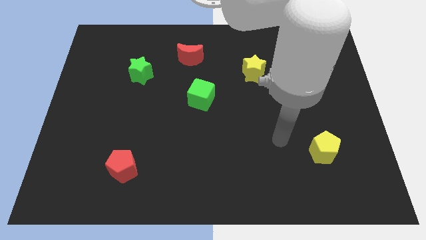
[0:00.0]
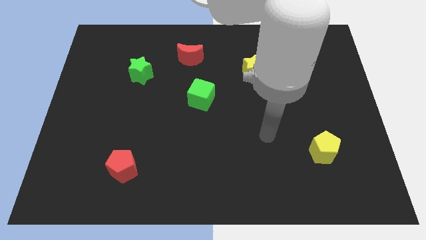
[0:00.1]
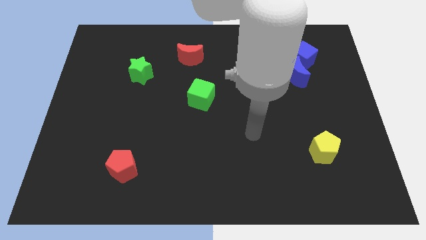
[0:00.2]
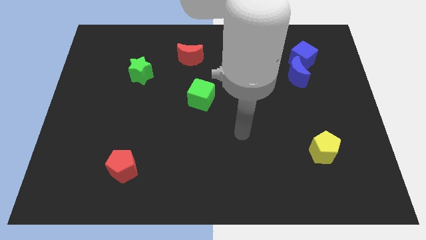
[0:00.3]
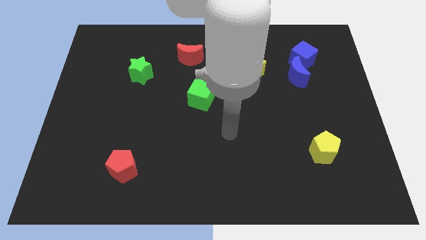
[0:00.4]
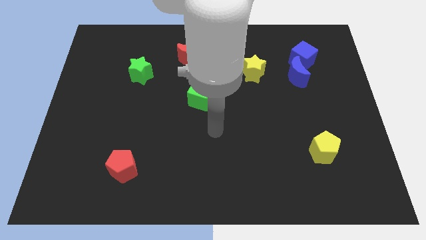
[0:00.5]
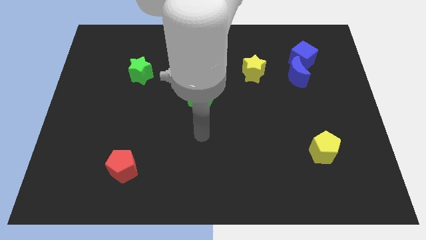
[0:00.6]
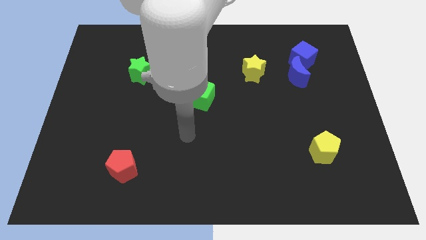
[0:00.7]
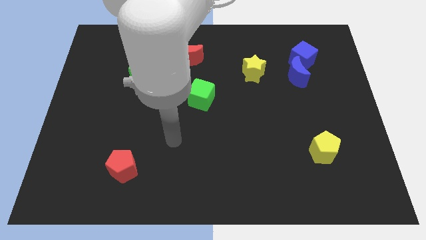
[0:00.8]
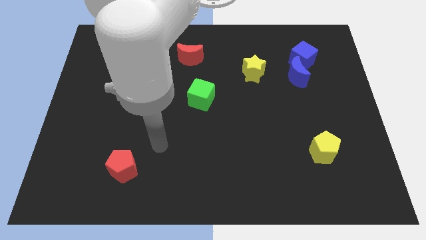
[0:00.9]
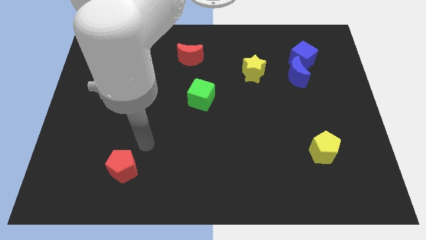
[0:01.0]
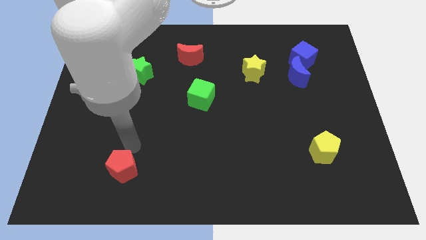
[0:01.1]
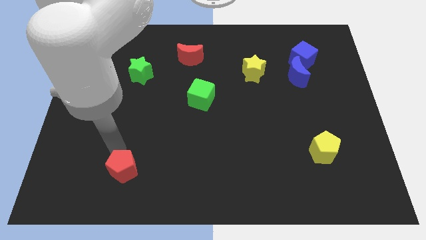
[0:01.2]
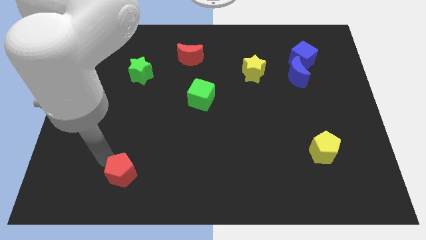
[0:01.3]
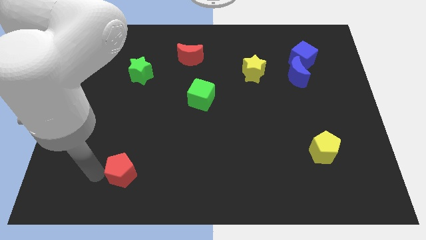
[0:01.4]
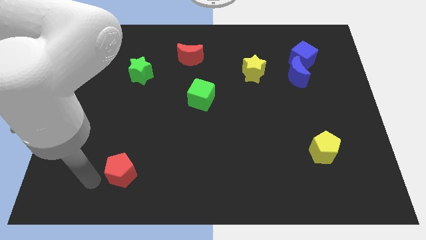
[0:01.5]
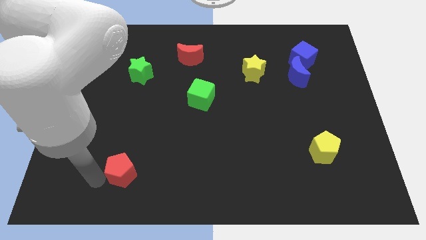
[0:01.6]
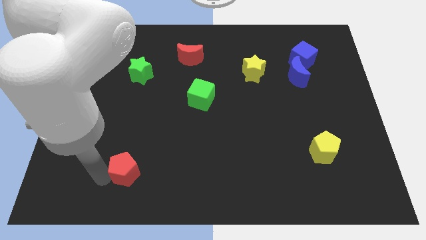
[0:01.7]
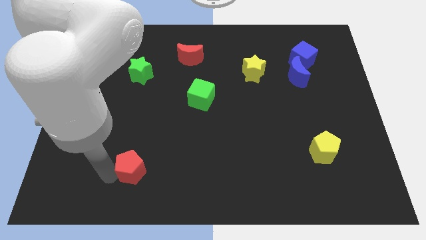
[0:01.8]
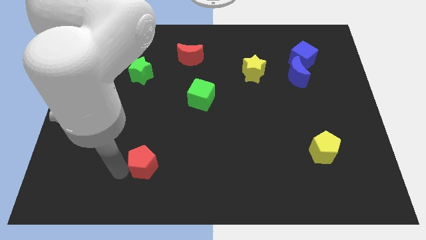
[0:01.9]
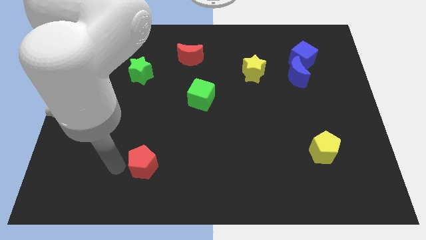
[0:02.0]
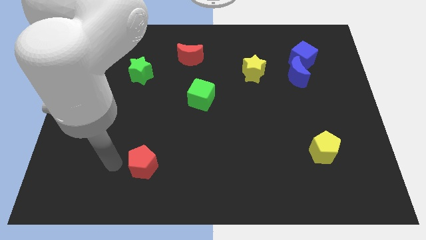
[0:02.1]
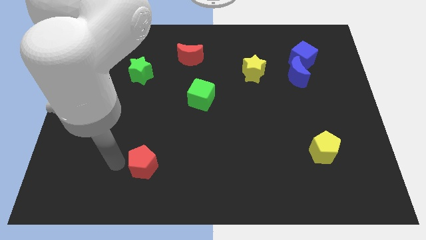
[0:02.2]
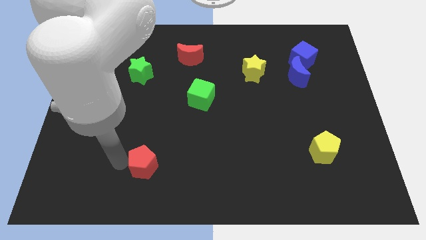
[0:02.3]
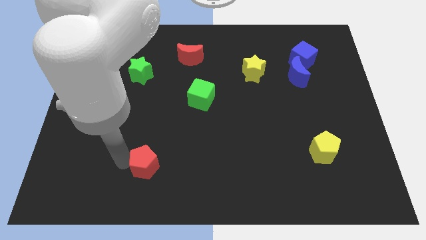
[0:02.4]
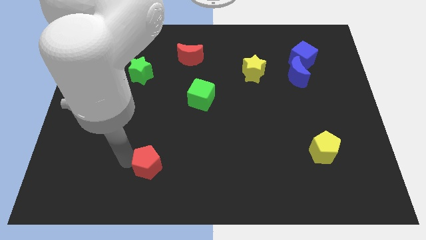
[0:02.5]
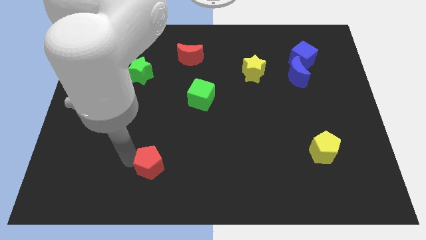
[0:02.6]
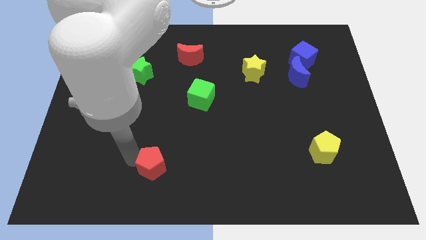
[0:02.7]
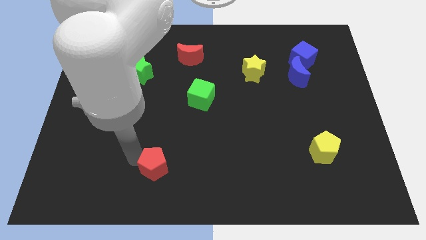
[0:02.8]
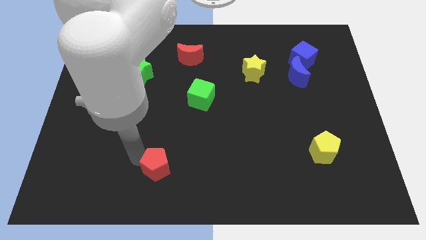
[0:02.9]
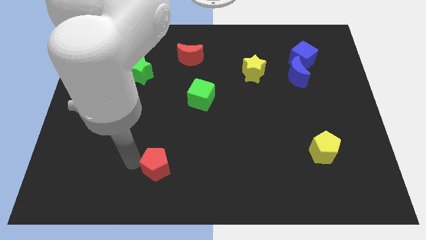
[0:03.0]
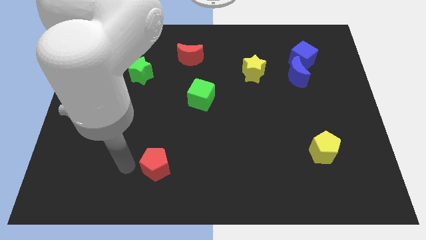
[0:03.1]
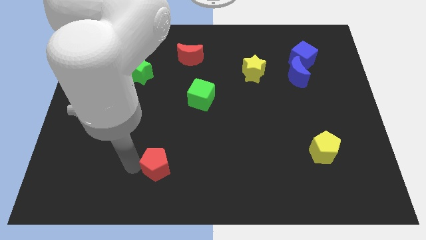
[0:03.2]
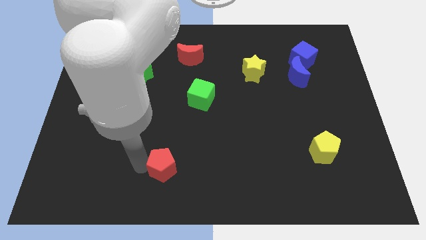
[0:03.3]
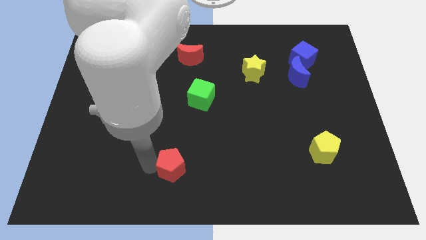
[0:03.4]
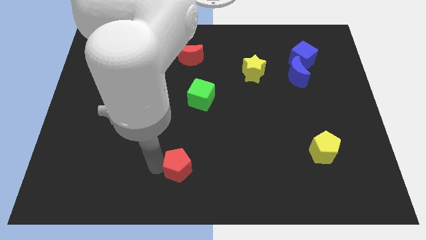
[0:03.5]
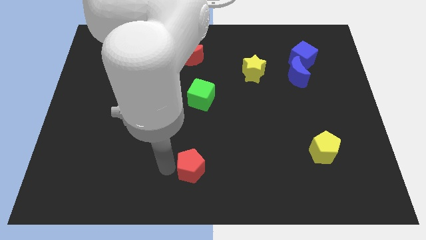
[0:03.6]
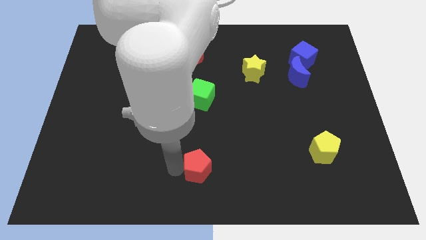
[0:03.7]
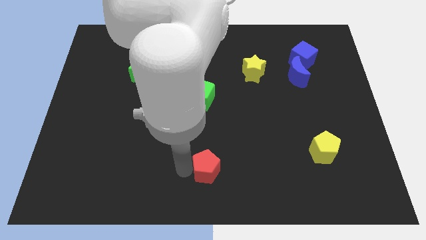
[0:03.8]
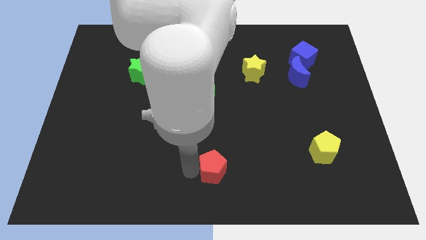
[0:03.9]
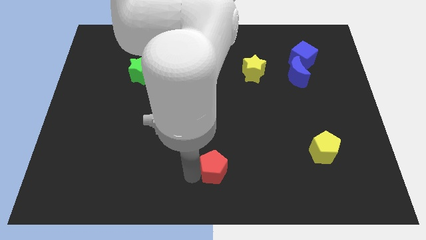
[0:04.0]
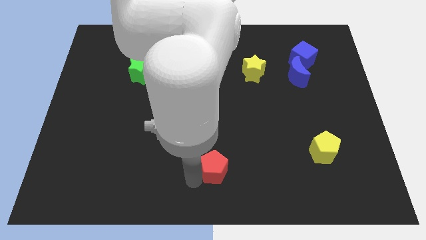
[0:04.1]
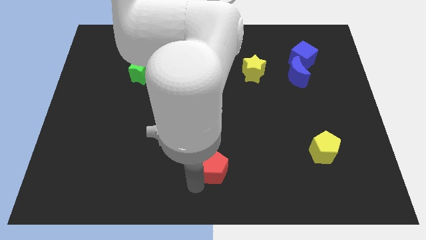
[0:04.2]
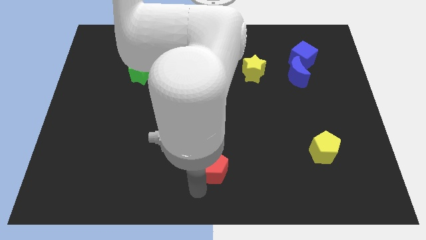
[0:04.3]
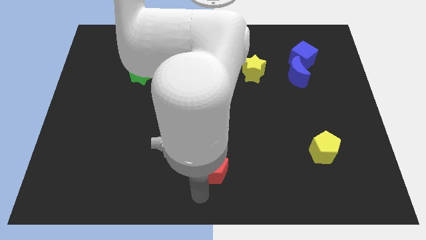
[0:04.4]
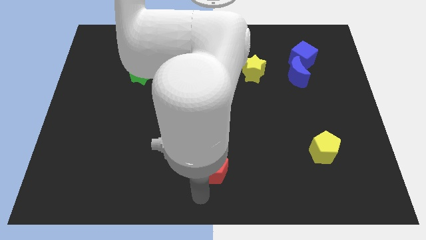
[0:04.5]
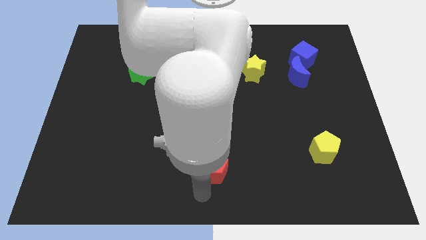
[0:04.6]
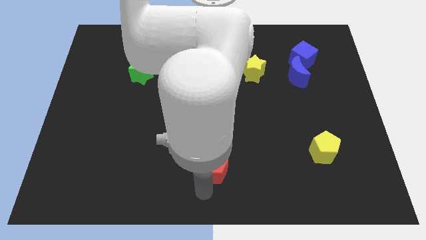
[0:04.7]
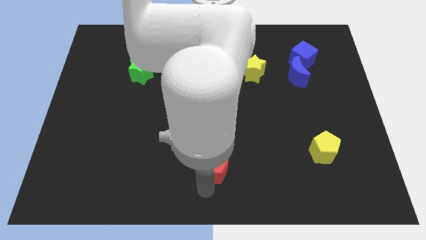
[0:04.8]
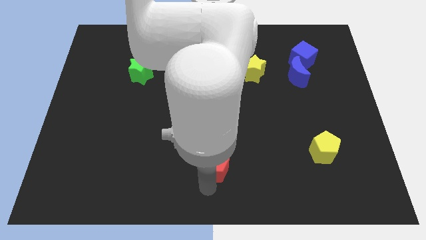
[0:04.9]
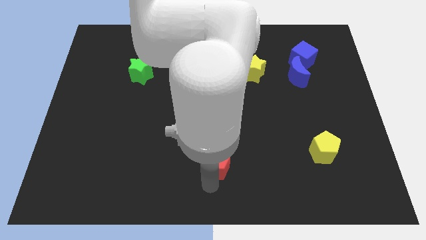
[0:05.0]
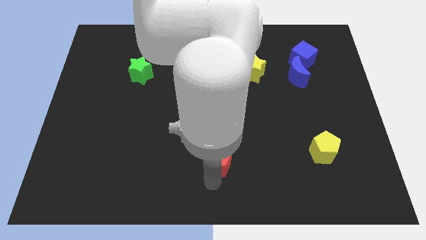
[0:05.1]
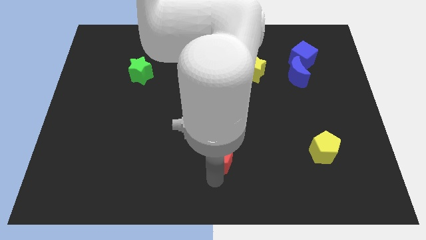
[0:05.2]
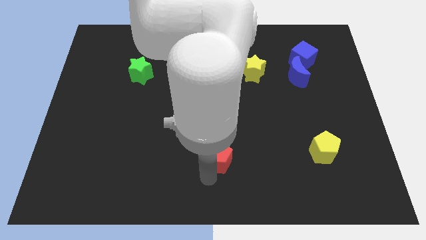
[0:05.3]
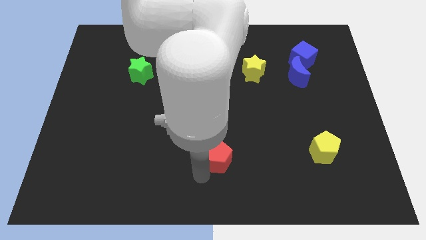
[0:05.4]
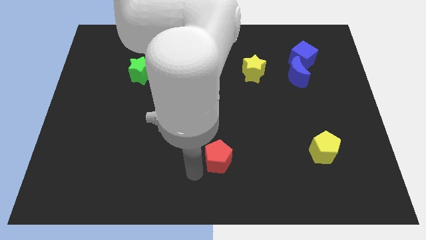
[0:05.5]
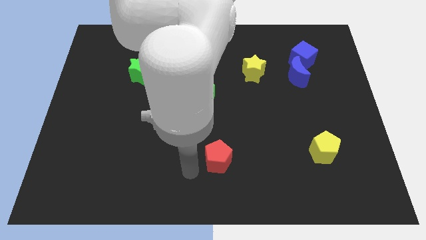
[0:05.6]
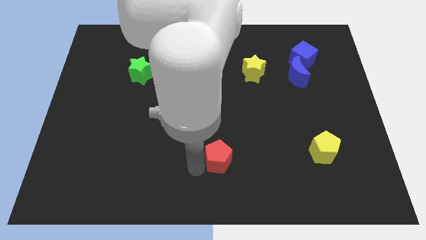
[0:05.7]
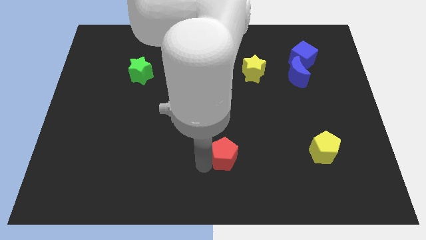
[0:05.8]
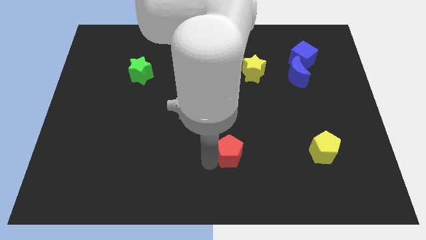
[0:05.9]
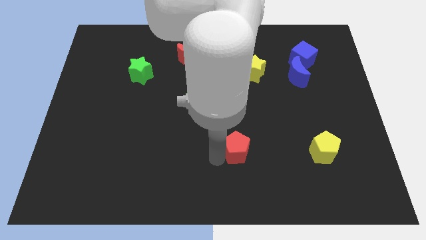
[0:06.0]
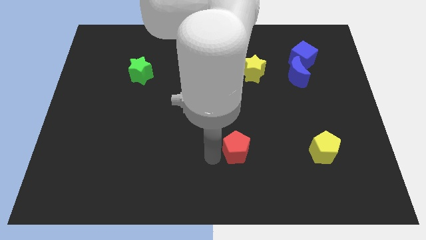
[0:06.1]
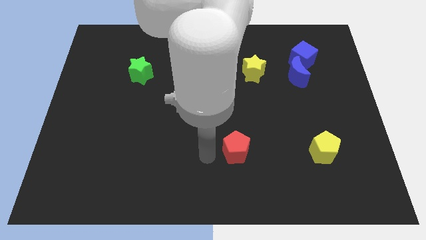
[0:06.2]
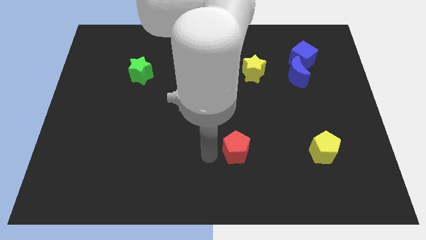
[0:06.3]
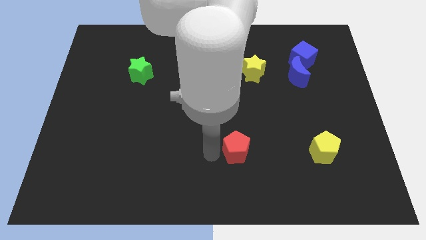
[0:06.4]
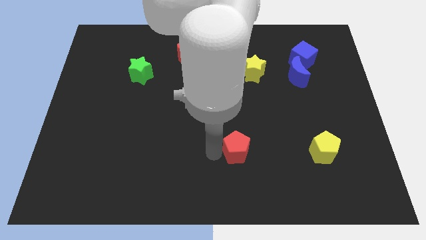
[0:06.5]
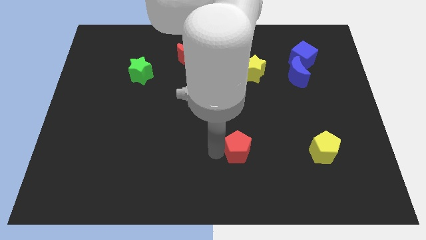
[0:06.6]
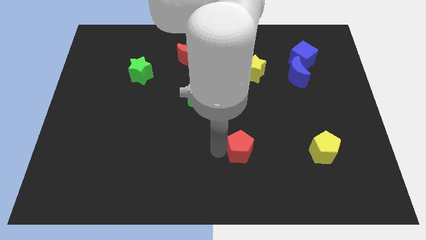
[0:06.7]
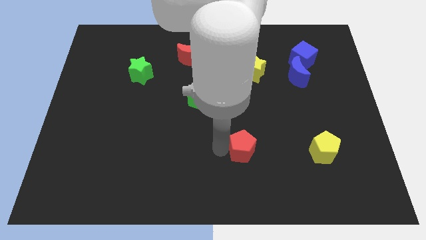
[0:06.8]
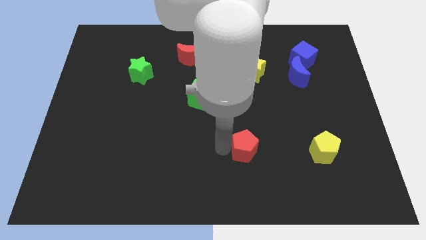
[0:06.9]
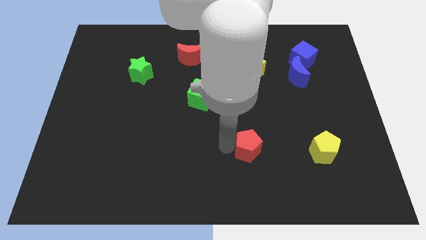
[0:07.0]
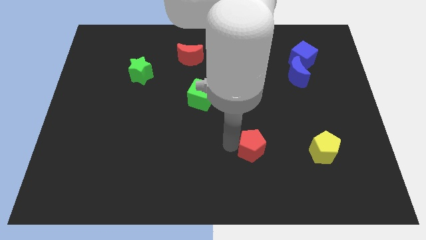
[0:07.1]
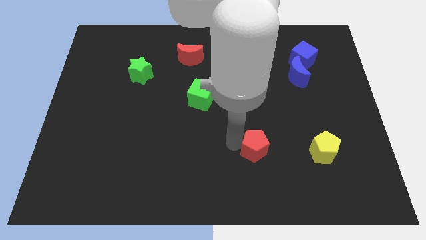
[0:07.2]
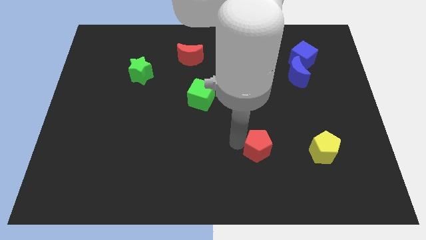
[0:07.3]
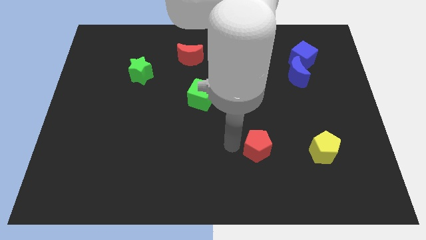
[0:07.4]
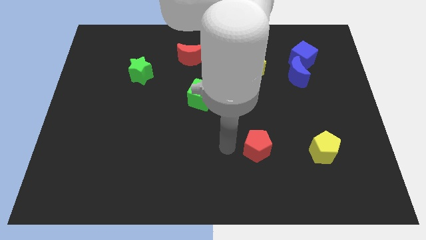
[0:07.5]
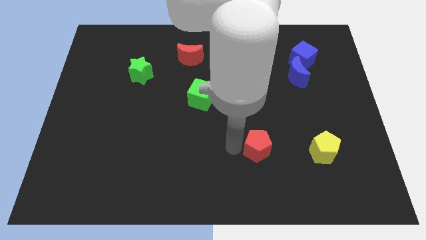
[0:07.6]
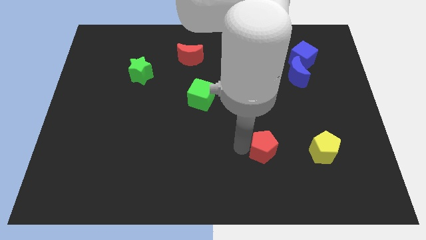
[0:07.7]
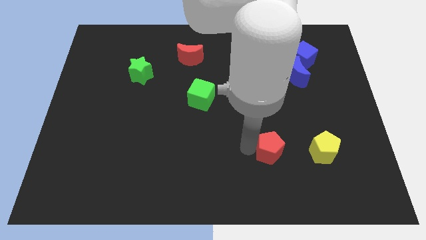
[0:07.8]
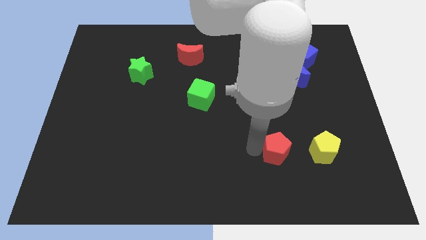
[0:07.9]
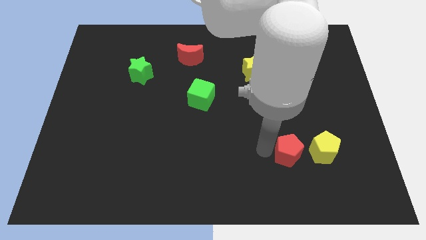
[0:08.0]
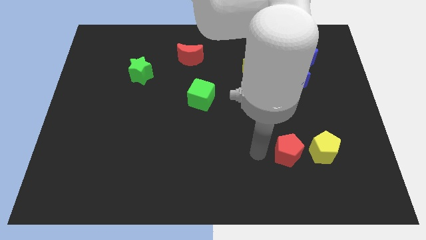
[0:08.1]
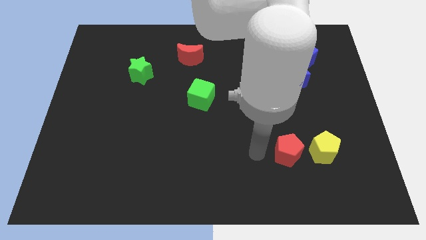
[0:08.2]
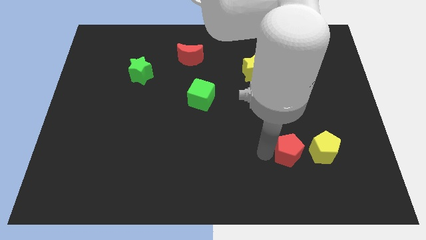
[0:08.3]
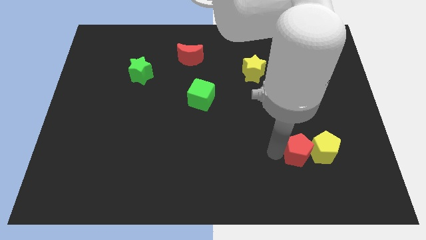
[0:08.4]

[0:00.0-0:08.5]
push the red pentagon next to the yellow pentagon
